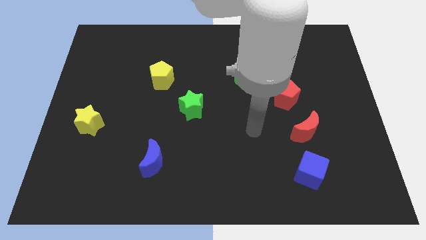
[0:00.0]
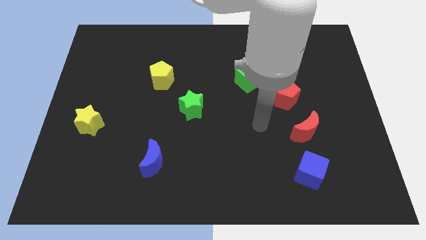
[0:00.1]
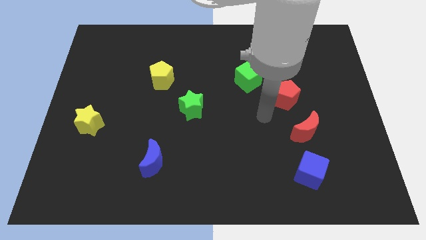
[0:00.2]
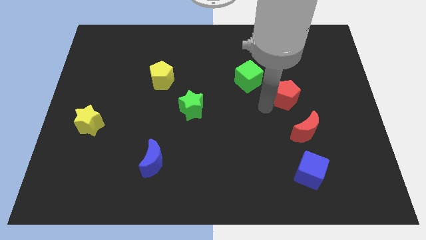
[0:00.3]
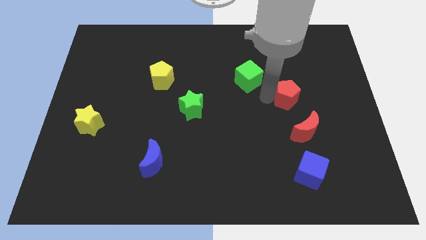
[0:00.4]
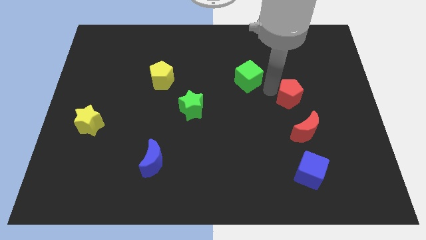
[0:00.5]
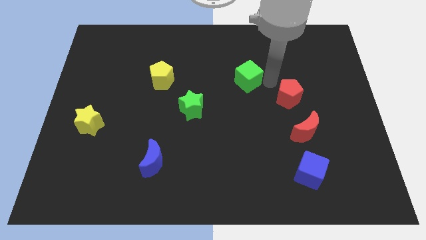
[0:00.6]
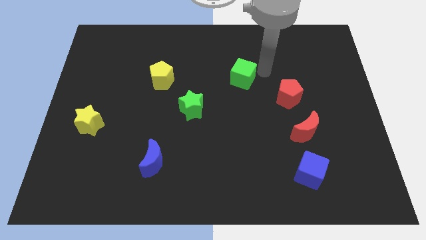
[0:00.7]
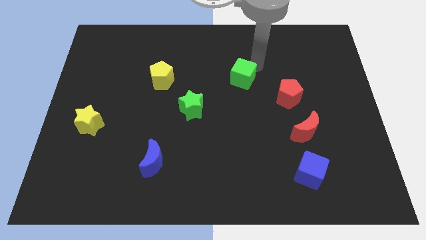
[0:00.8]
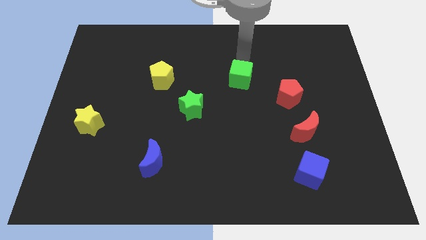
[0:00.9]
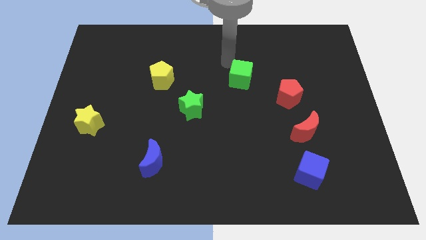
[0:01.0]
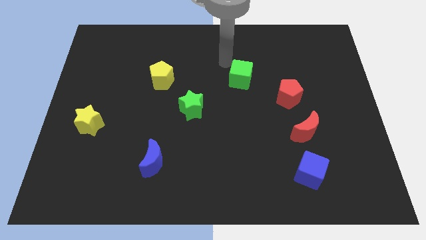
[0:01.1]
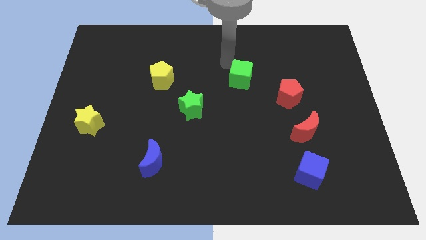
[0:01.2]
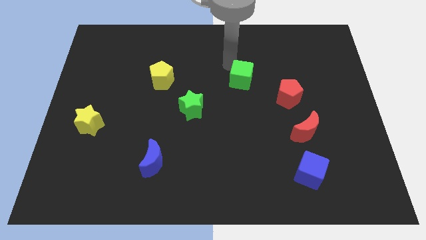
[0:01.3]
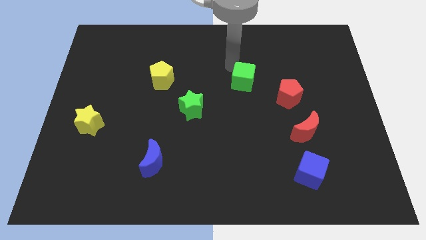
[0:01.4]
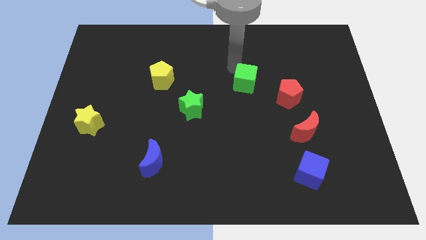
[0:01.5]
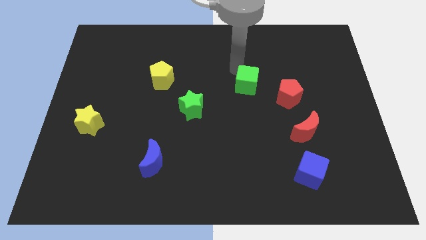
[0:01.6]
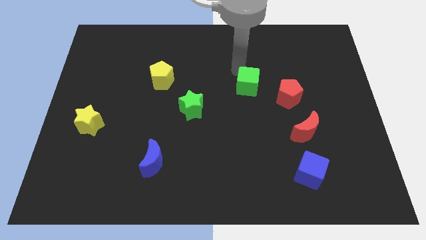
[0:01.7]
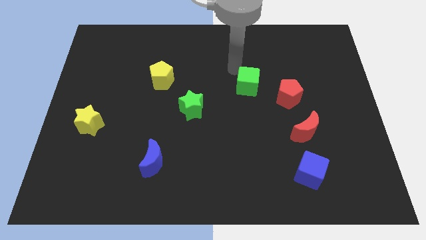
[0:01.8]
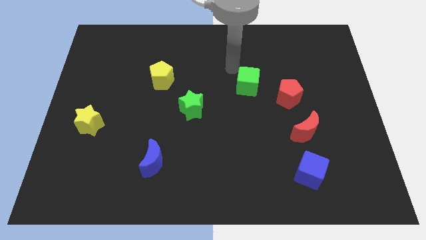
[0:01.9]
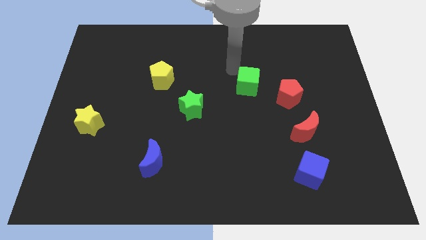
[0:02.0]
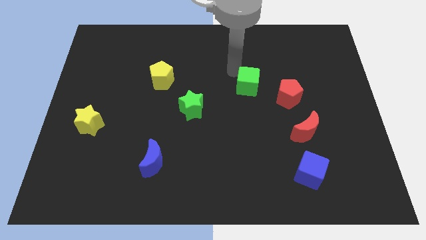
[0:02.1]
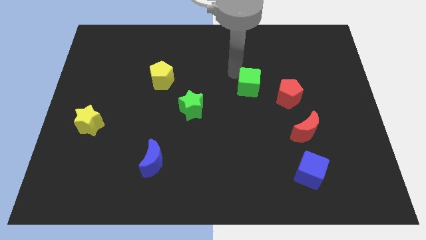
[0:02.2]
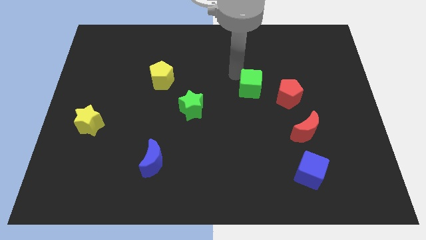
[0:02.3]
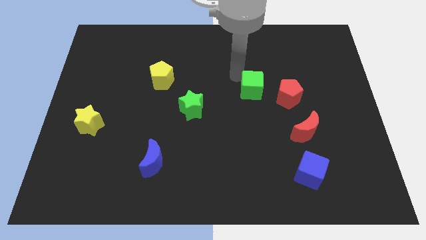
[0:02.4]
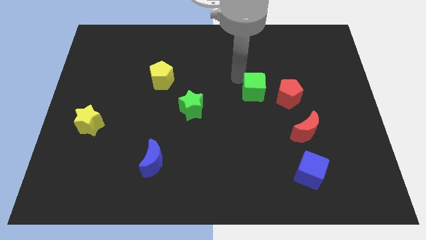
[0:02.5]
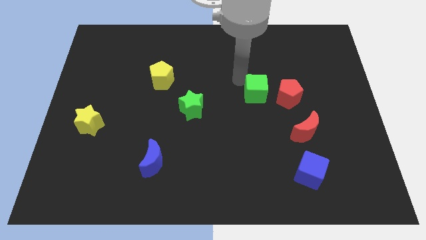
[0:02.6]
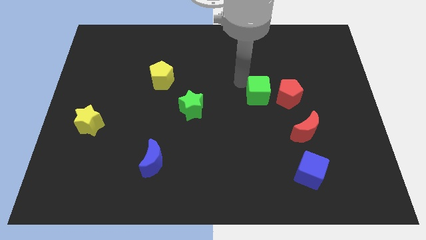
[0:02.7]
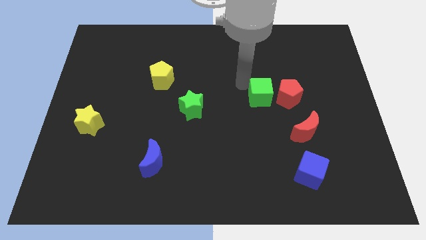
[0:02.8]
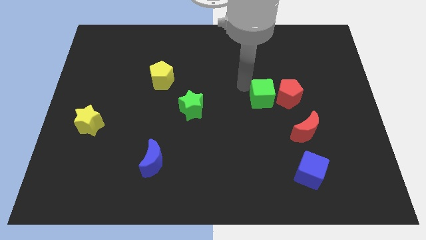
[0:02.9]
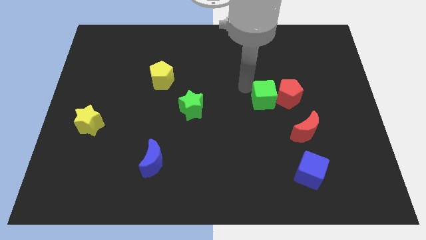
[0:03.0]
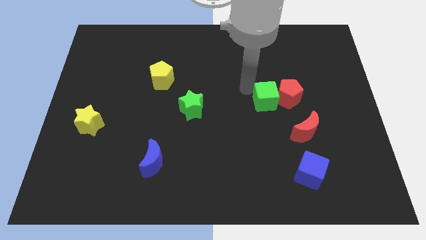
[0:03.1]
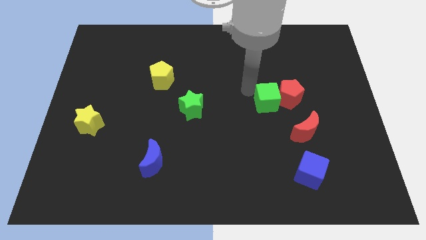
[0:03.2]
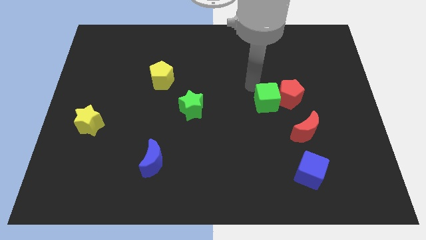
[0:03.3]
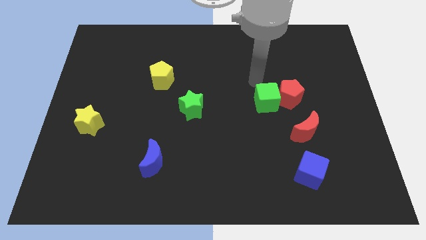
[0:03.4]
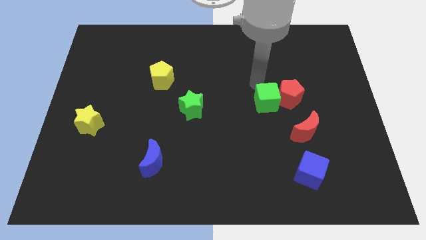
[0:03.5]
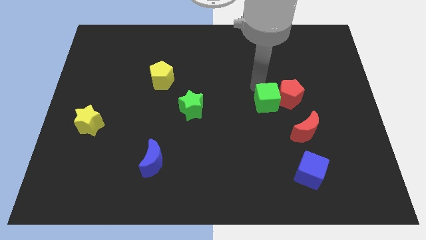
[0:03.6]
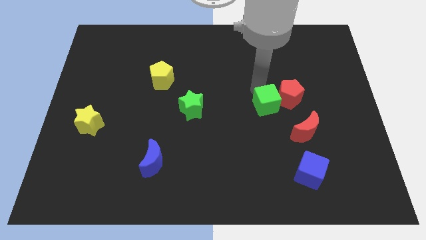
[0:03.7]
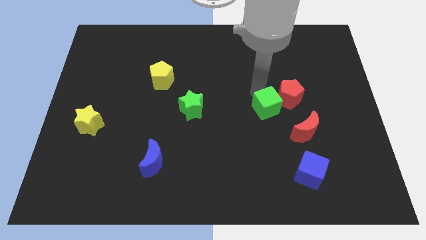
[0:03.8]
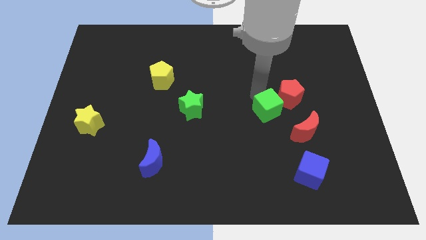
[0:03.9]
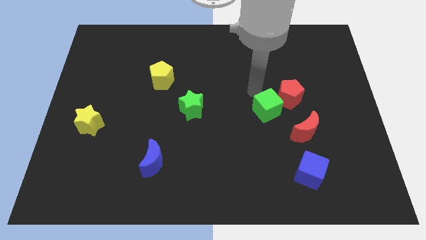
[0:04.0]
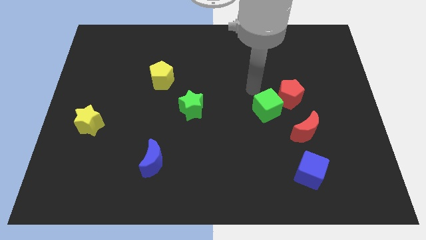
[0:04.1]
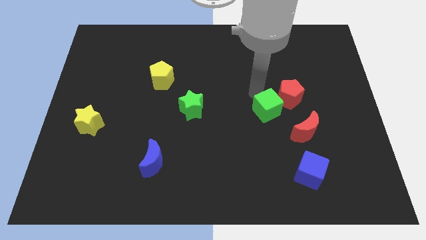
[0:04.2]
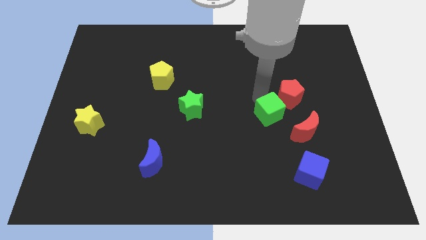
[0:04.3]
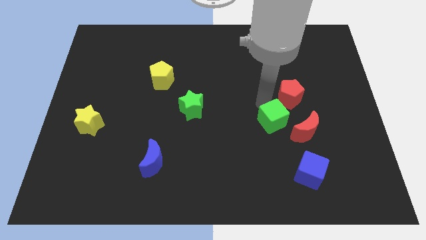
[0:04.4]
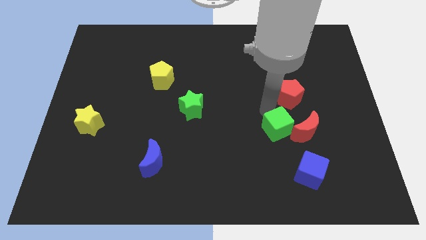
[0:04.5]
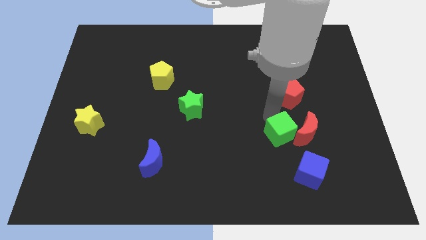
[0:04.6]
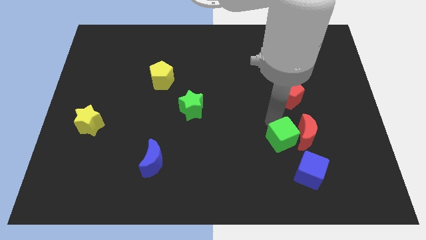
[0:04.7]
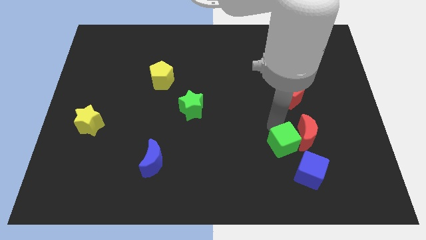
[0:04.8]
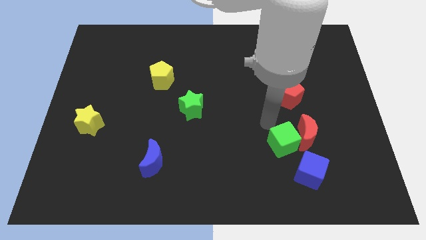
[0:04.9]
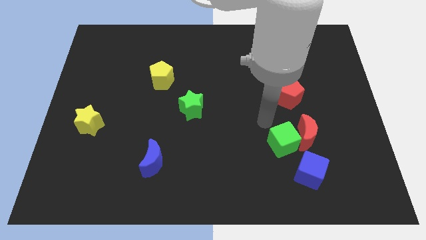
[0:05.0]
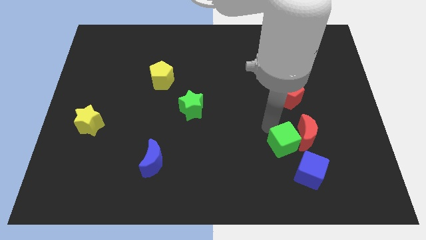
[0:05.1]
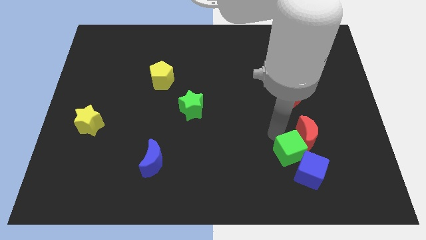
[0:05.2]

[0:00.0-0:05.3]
move the green cube close to the blue cube

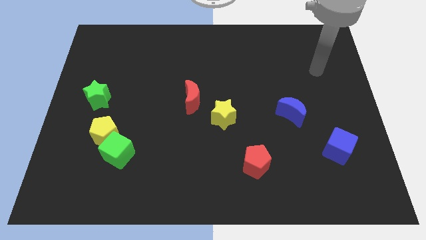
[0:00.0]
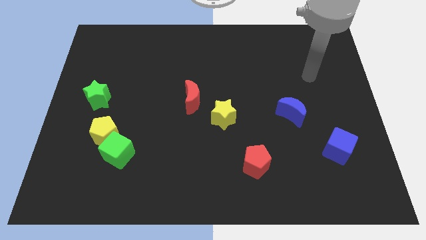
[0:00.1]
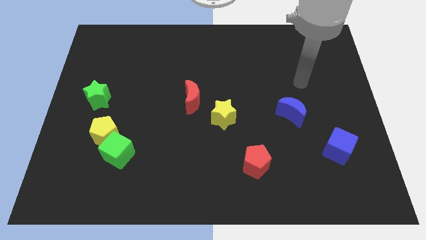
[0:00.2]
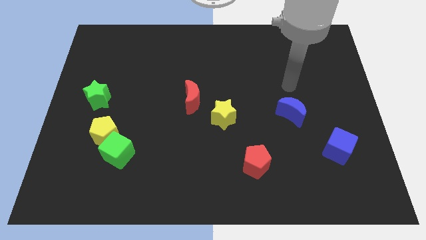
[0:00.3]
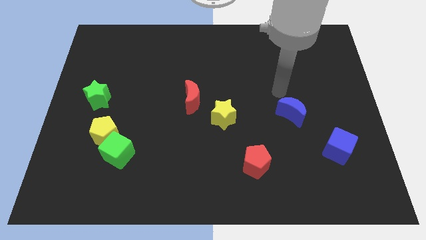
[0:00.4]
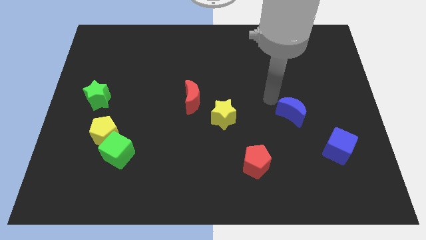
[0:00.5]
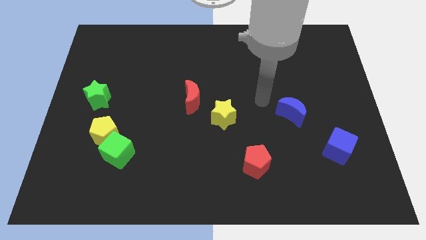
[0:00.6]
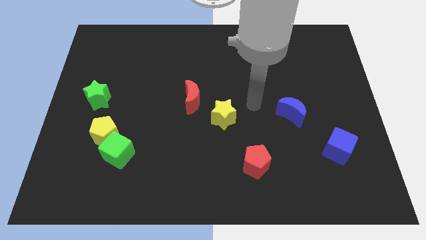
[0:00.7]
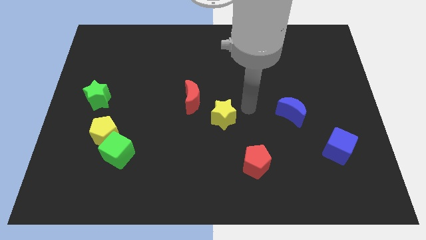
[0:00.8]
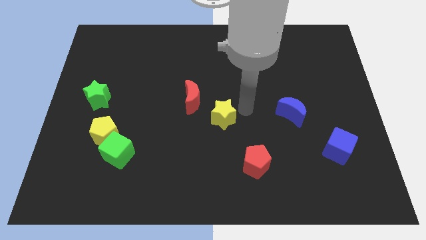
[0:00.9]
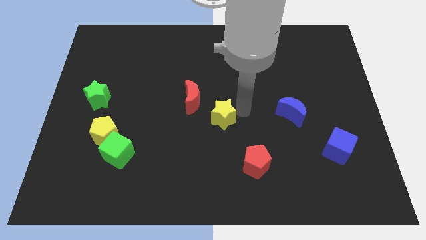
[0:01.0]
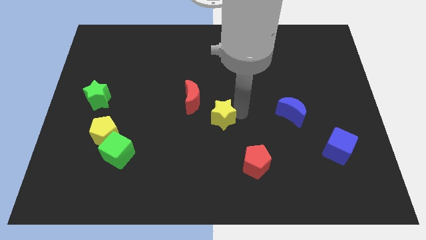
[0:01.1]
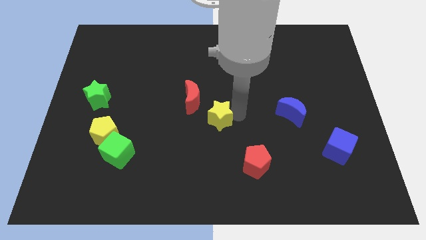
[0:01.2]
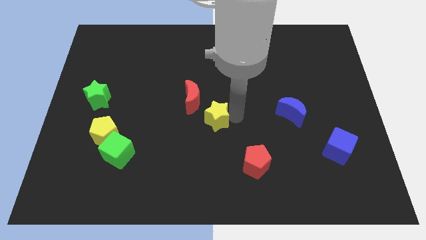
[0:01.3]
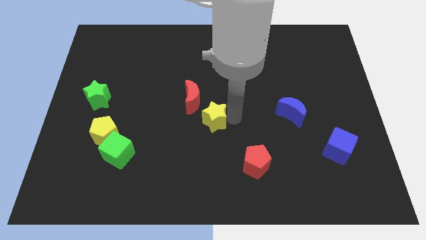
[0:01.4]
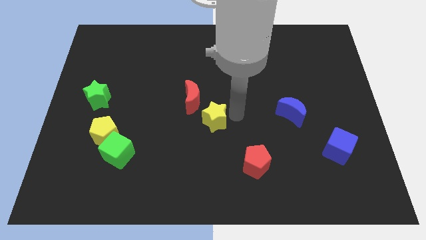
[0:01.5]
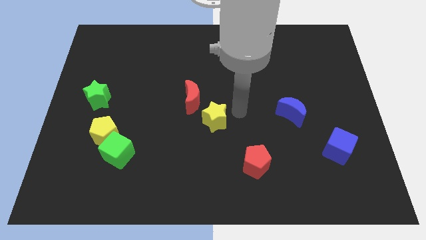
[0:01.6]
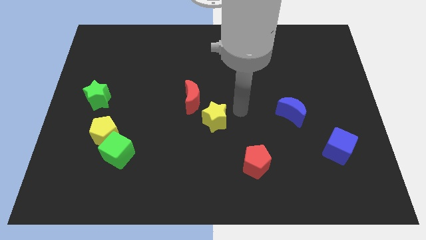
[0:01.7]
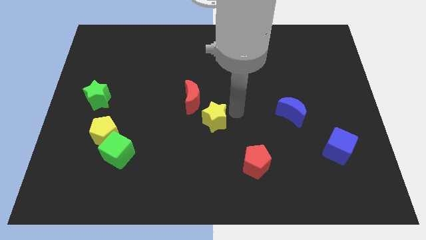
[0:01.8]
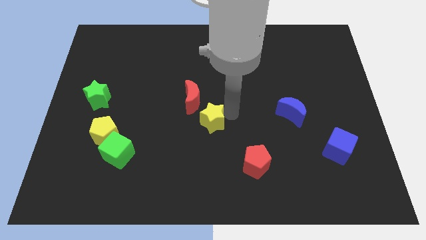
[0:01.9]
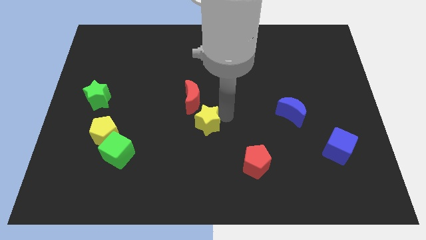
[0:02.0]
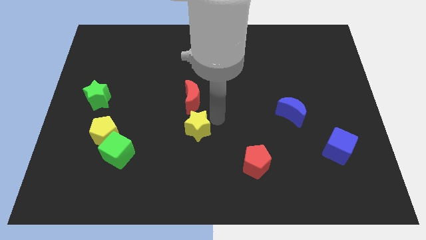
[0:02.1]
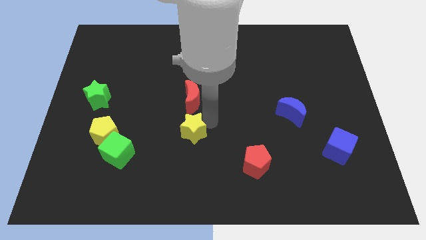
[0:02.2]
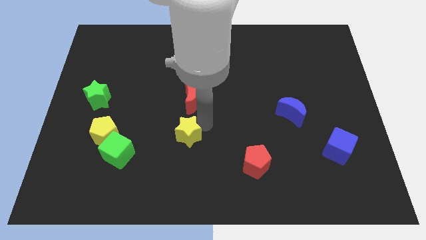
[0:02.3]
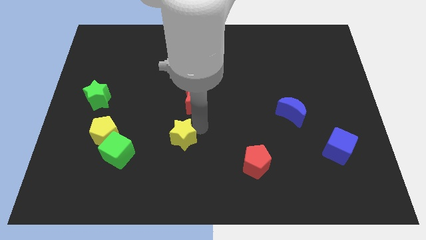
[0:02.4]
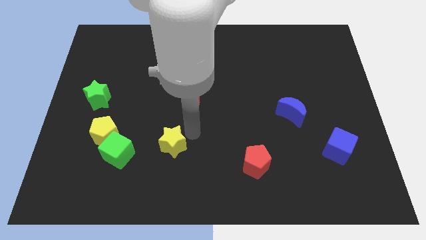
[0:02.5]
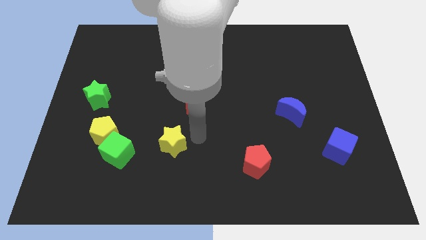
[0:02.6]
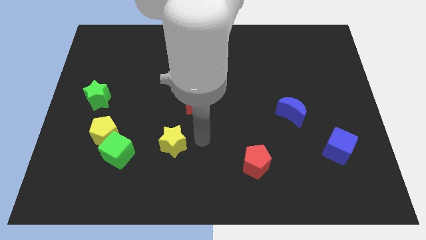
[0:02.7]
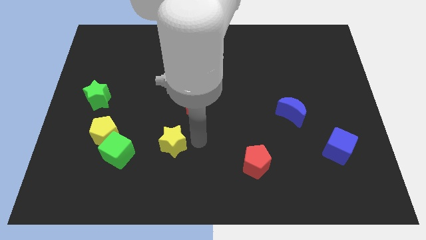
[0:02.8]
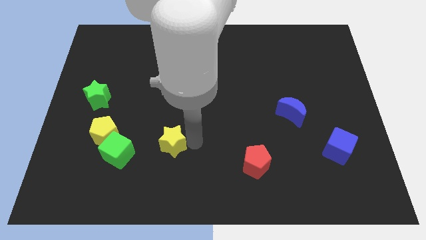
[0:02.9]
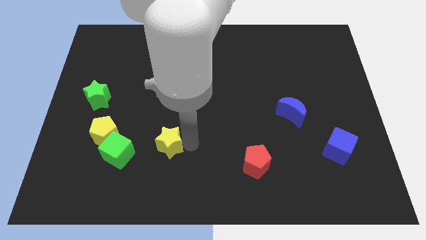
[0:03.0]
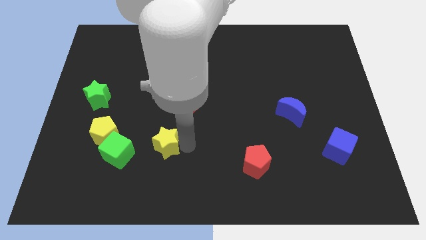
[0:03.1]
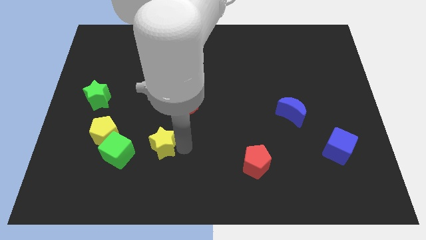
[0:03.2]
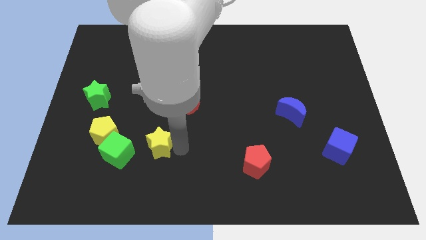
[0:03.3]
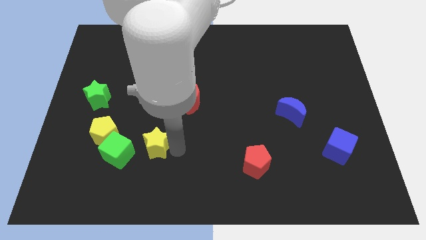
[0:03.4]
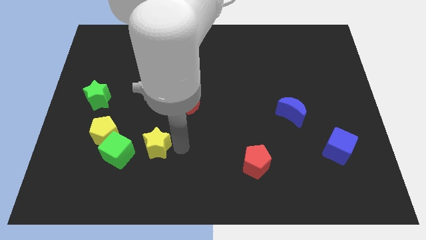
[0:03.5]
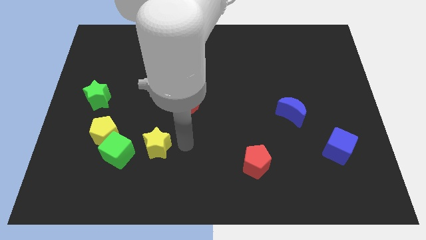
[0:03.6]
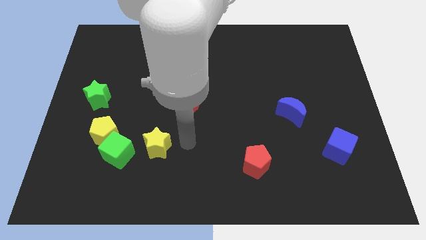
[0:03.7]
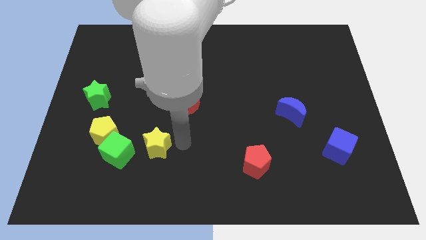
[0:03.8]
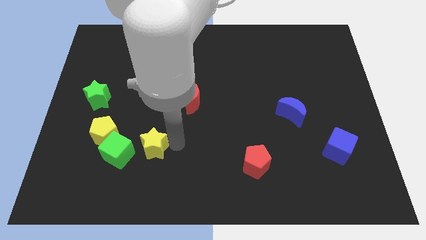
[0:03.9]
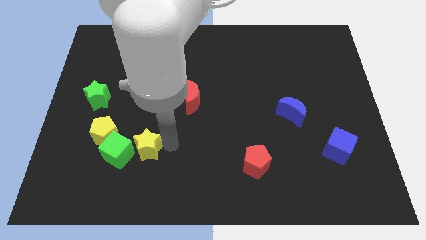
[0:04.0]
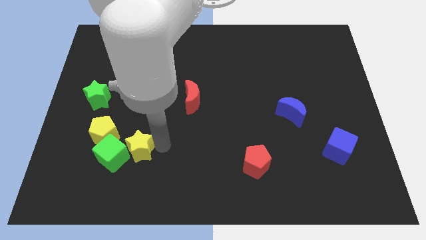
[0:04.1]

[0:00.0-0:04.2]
put the yellow star towards the green cube
